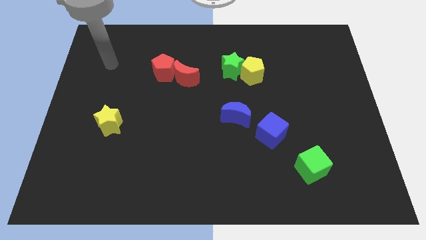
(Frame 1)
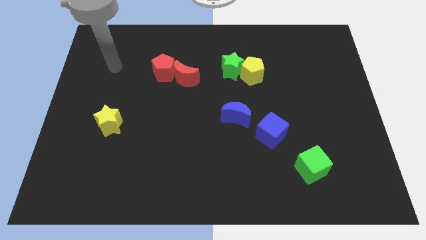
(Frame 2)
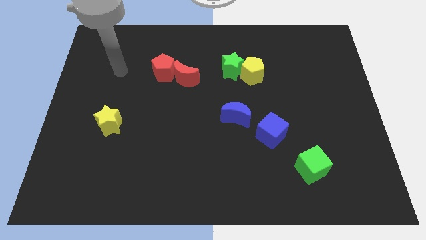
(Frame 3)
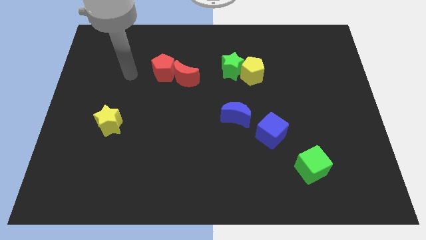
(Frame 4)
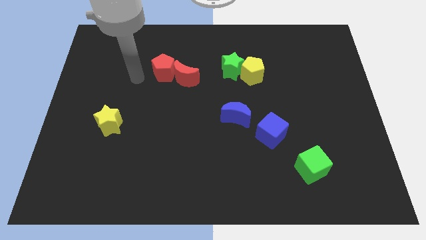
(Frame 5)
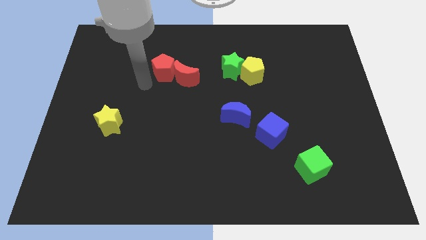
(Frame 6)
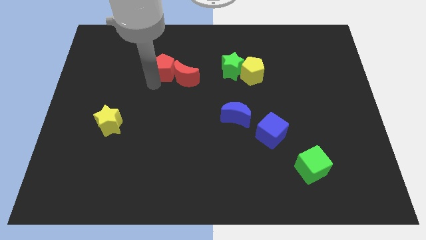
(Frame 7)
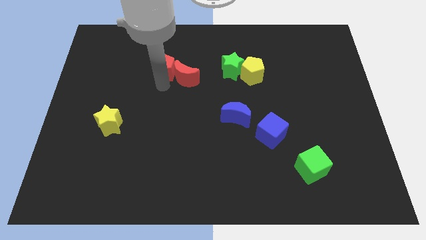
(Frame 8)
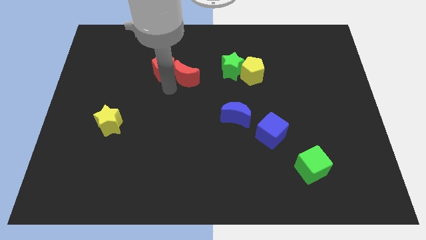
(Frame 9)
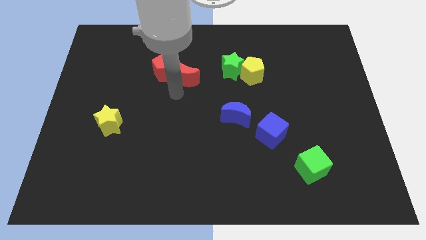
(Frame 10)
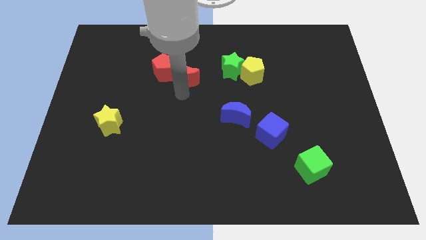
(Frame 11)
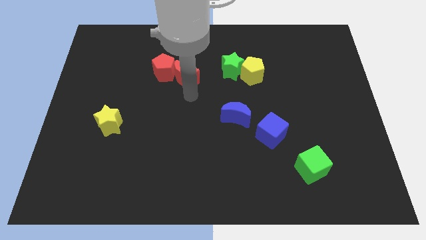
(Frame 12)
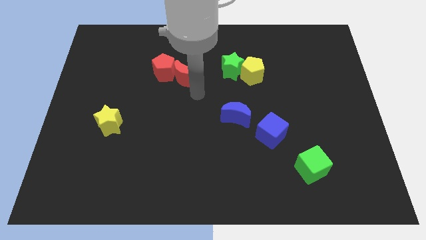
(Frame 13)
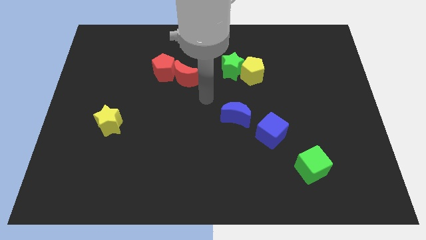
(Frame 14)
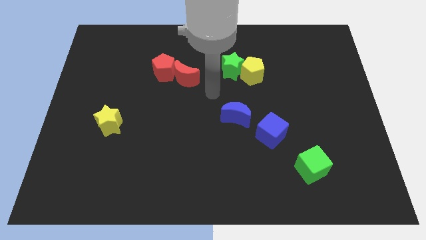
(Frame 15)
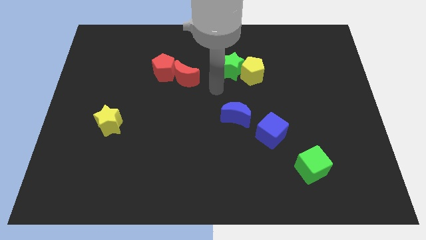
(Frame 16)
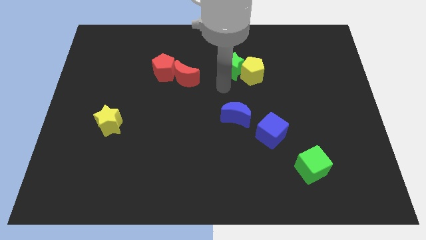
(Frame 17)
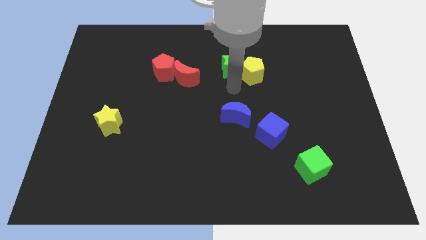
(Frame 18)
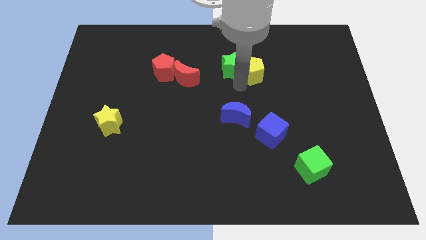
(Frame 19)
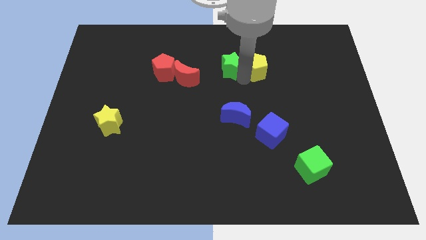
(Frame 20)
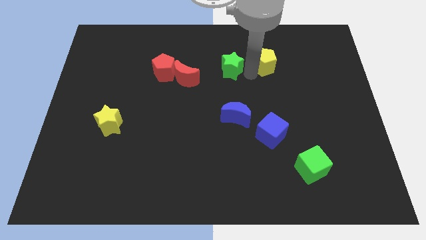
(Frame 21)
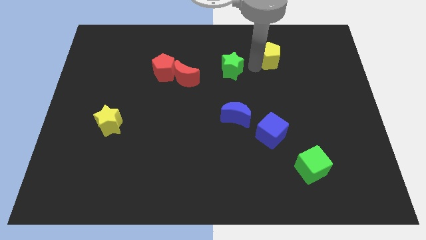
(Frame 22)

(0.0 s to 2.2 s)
move the green star away from the yellow pentagon

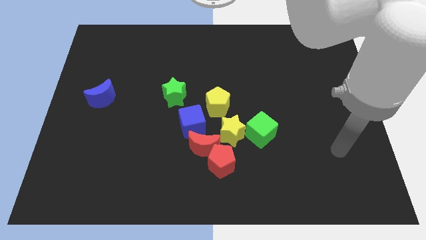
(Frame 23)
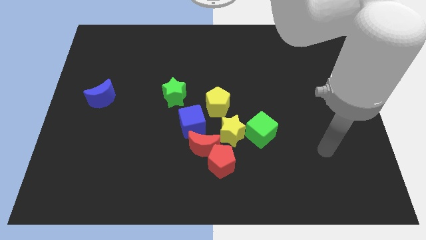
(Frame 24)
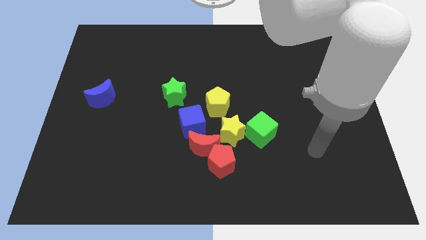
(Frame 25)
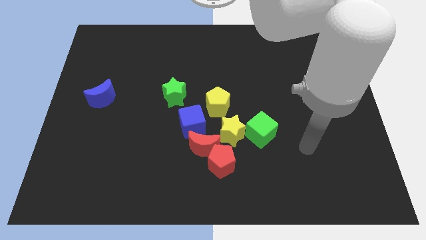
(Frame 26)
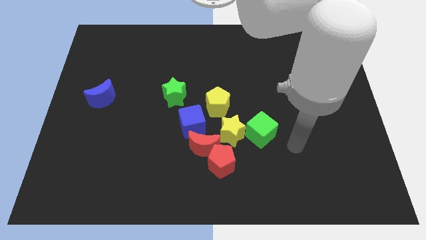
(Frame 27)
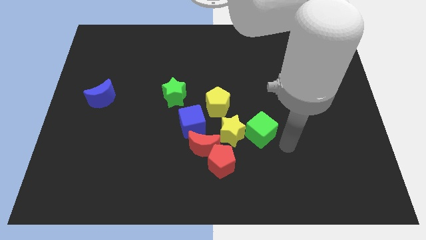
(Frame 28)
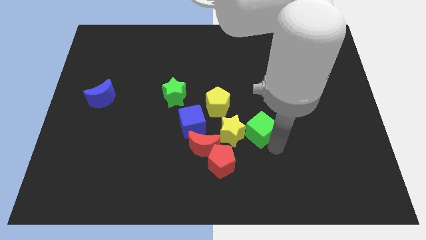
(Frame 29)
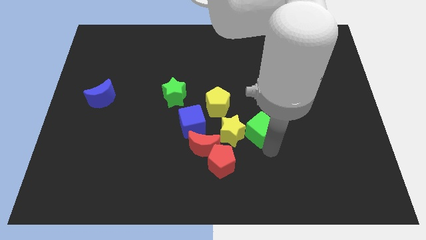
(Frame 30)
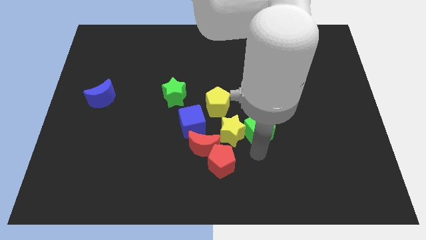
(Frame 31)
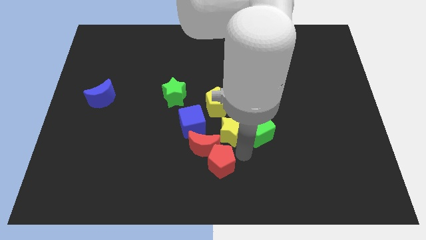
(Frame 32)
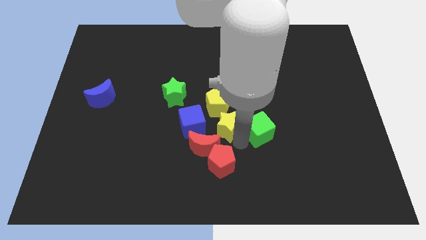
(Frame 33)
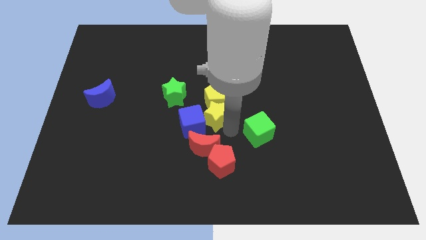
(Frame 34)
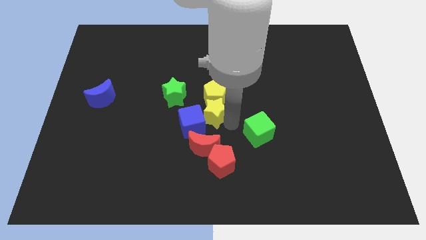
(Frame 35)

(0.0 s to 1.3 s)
move the green cube away from the yellow star

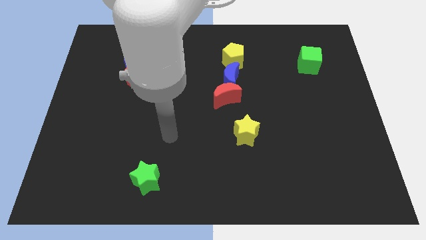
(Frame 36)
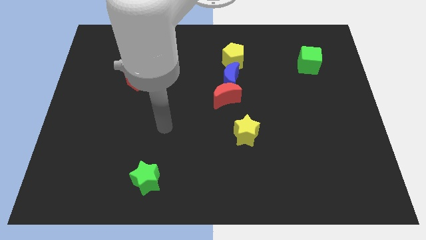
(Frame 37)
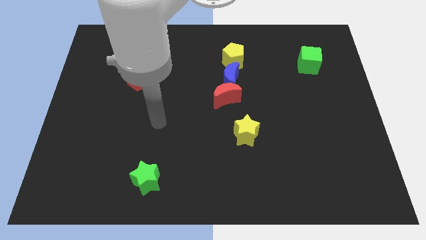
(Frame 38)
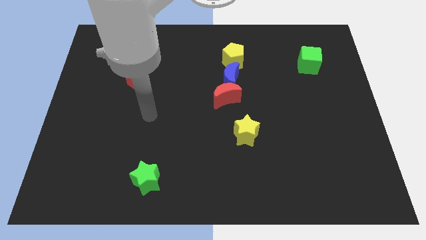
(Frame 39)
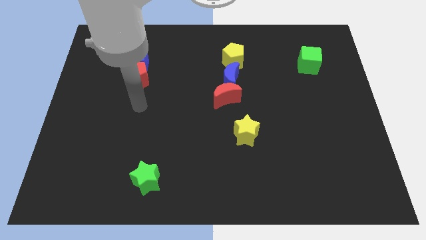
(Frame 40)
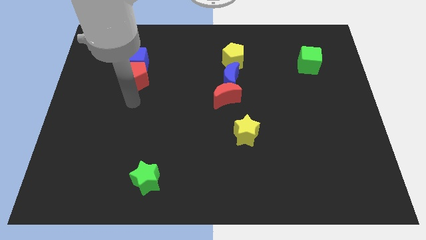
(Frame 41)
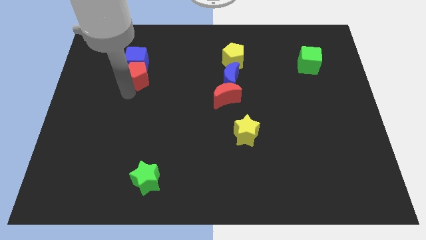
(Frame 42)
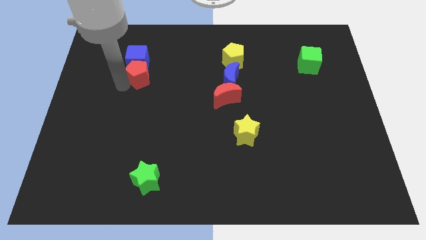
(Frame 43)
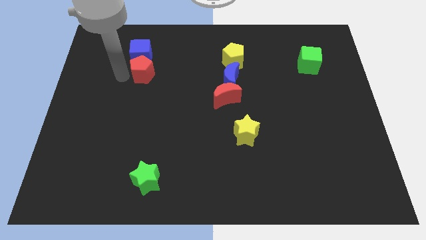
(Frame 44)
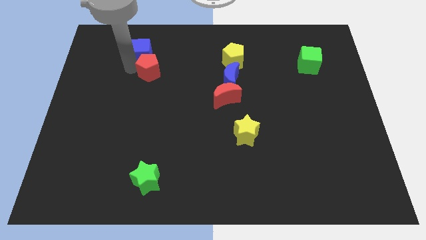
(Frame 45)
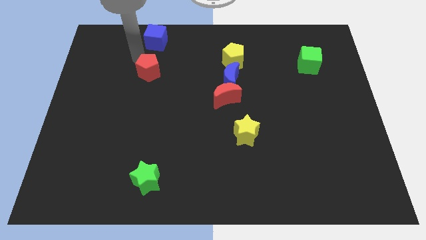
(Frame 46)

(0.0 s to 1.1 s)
separate the red pentagon from the blue cube

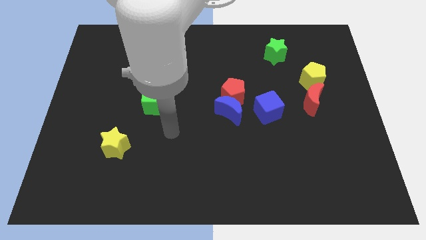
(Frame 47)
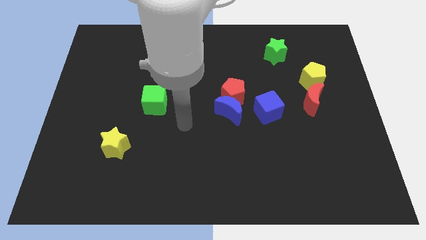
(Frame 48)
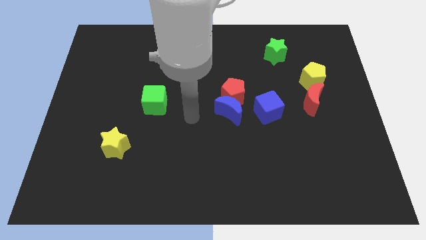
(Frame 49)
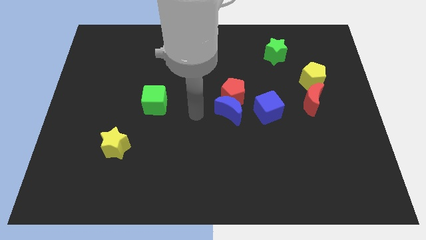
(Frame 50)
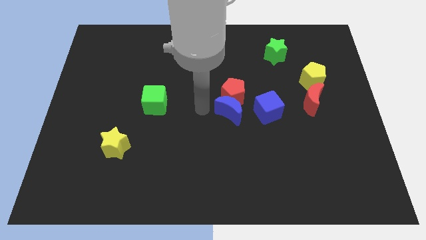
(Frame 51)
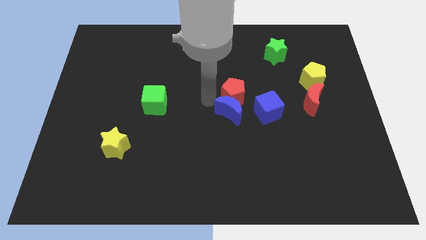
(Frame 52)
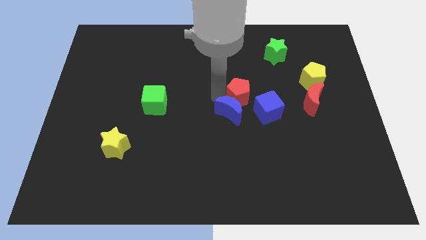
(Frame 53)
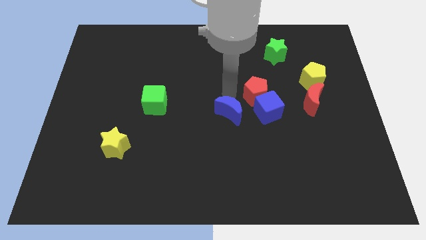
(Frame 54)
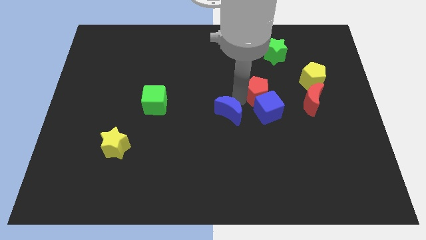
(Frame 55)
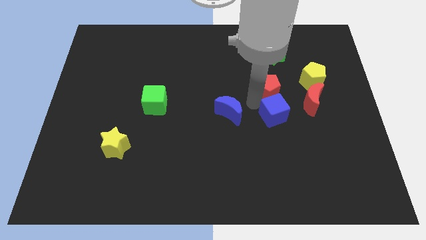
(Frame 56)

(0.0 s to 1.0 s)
pull the blue moon apart from the red pentagon and blue cube

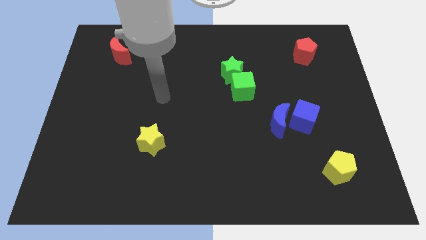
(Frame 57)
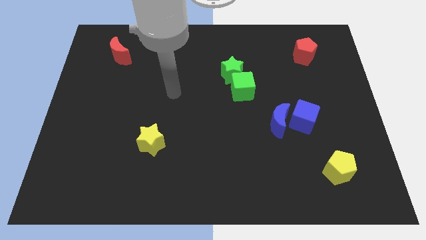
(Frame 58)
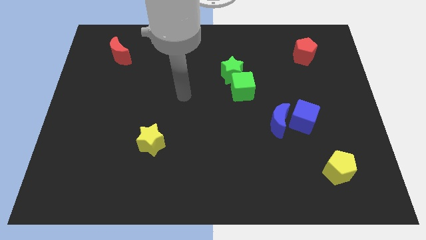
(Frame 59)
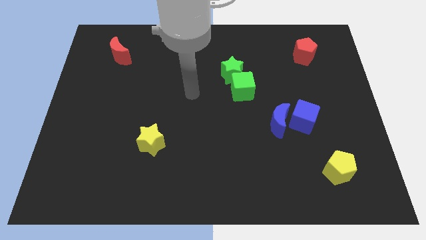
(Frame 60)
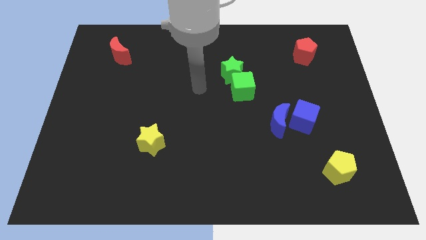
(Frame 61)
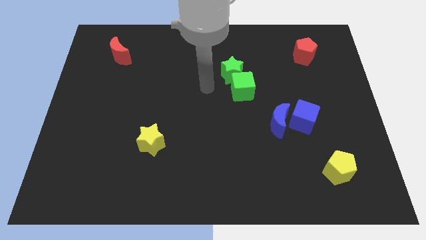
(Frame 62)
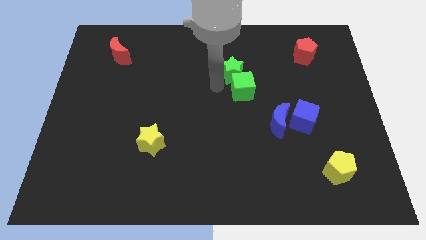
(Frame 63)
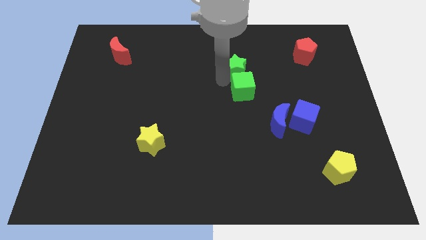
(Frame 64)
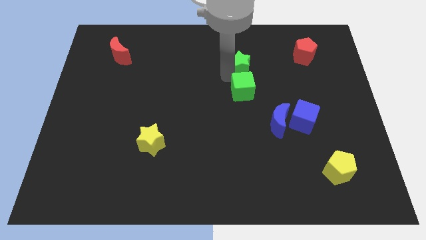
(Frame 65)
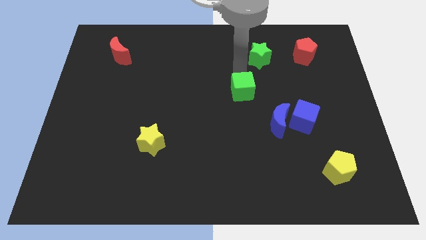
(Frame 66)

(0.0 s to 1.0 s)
move the green cube away from the green star

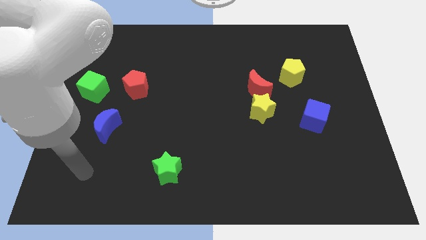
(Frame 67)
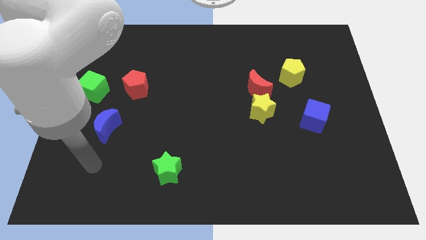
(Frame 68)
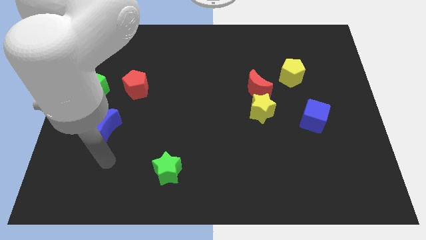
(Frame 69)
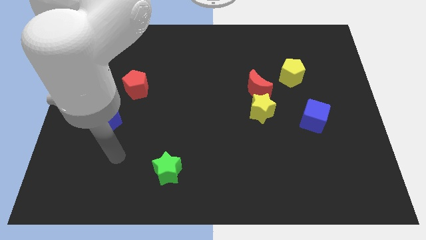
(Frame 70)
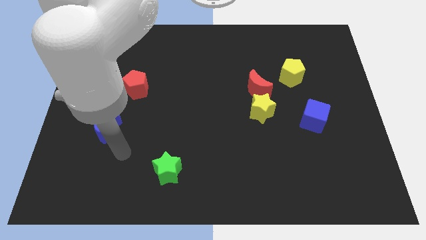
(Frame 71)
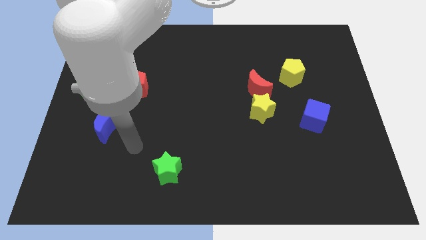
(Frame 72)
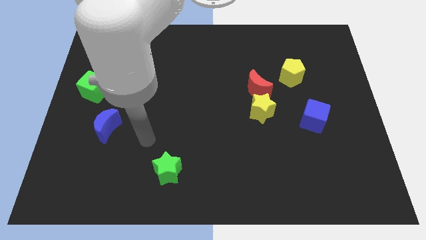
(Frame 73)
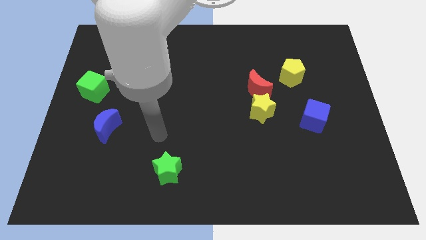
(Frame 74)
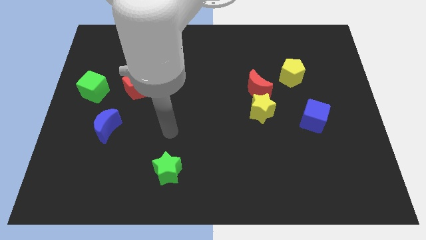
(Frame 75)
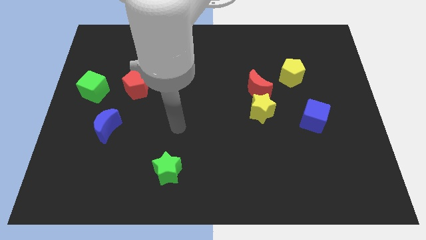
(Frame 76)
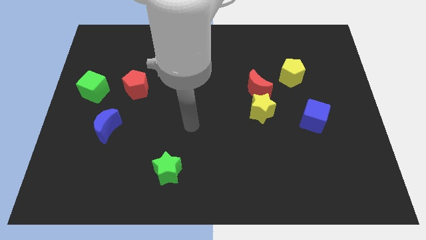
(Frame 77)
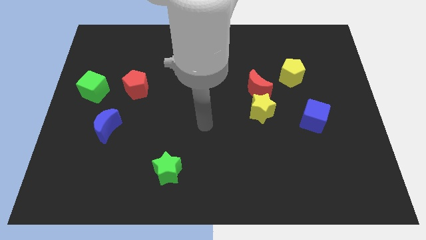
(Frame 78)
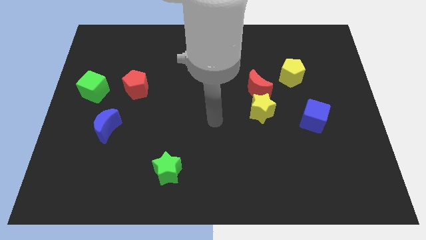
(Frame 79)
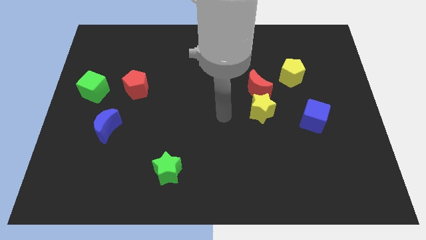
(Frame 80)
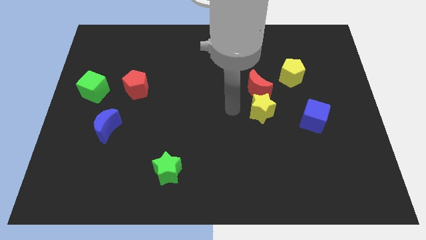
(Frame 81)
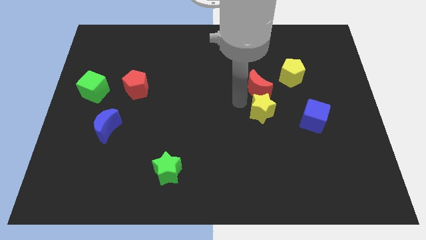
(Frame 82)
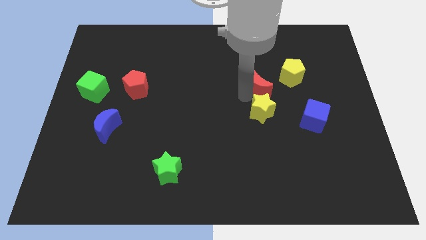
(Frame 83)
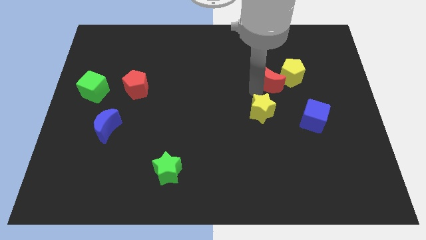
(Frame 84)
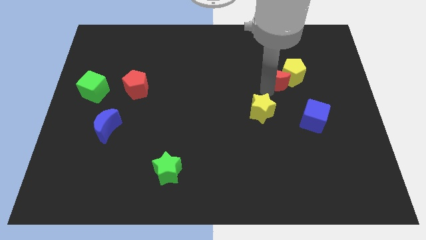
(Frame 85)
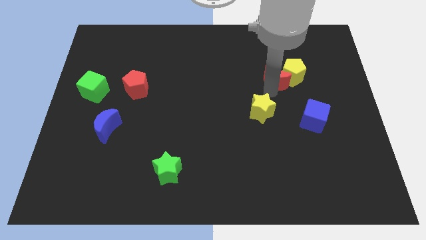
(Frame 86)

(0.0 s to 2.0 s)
pull the yellow star apart from the red moon

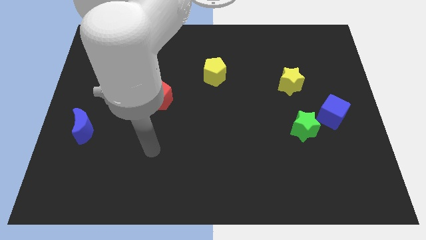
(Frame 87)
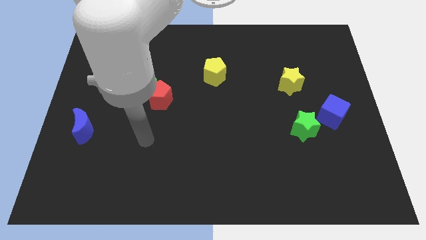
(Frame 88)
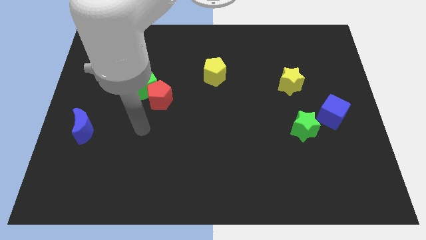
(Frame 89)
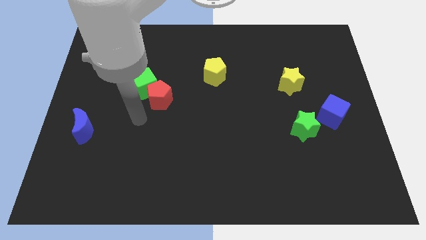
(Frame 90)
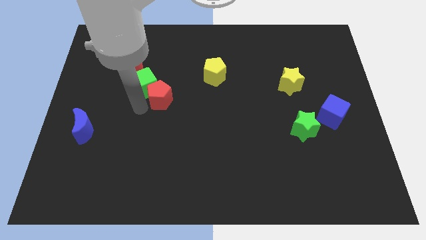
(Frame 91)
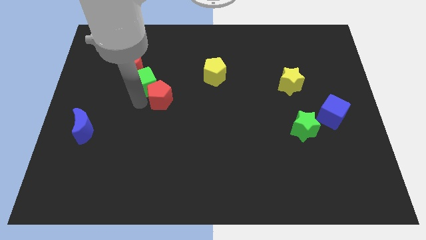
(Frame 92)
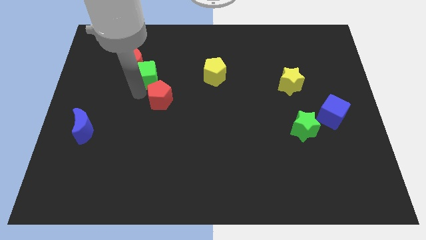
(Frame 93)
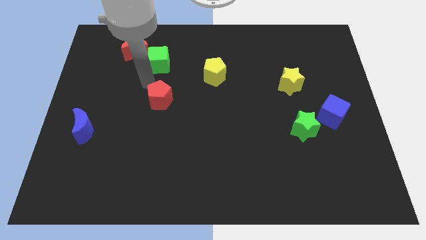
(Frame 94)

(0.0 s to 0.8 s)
pull the red pentagon apart from the green cube
